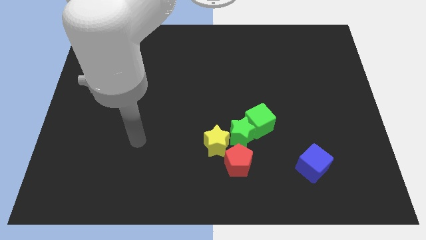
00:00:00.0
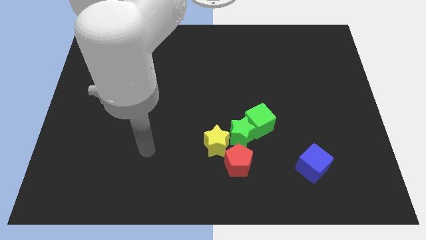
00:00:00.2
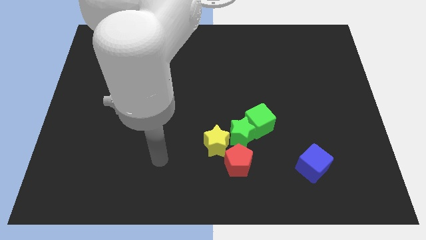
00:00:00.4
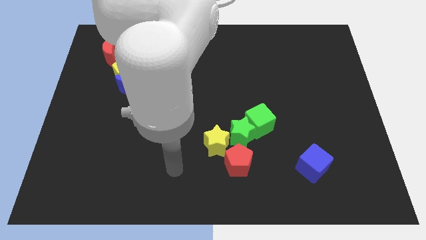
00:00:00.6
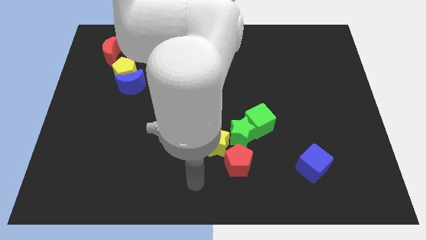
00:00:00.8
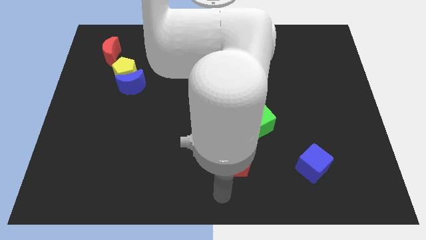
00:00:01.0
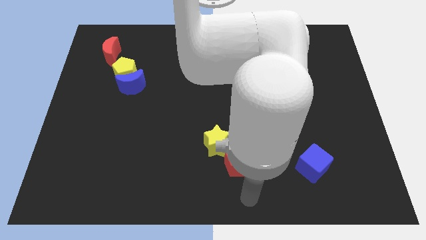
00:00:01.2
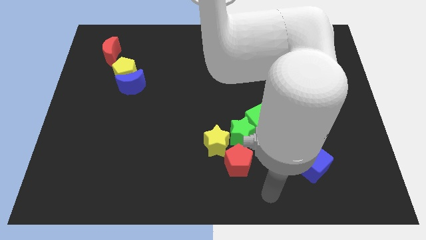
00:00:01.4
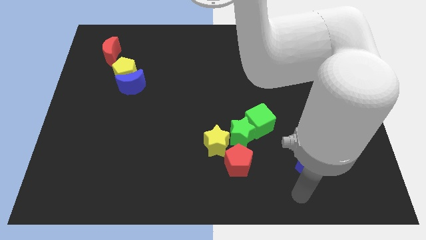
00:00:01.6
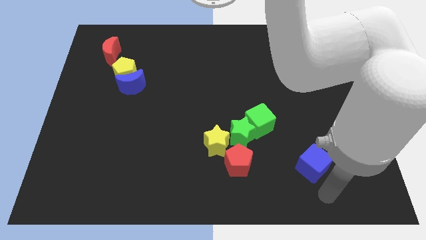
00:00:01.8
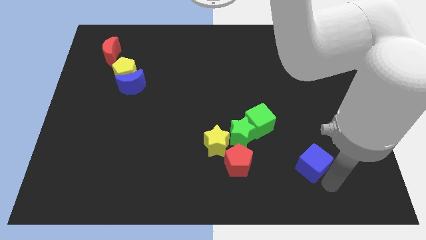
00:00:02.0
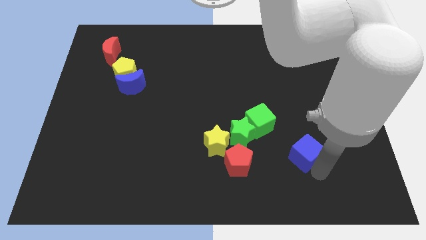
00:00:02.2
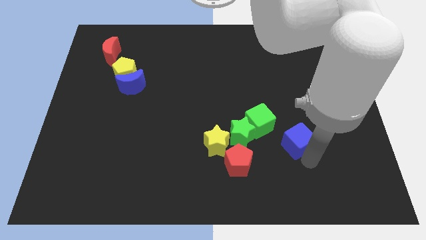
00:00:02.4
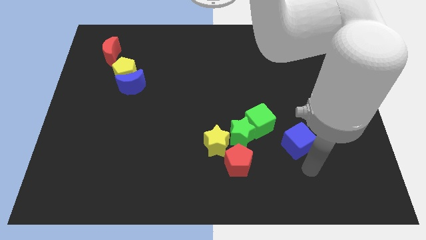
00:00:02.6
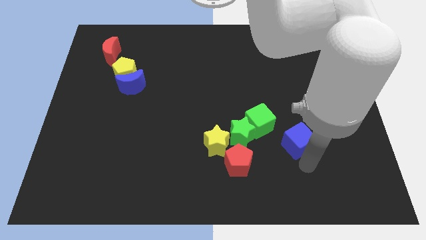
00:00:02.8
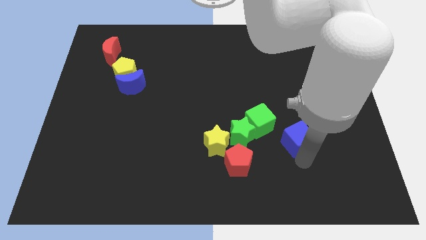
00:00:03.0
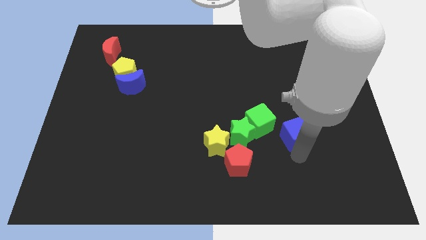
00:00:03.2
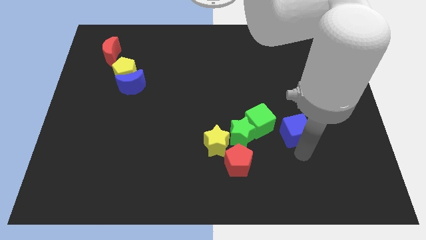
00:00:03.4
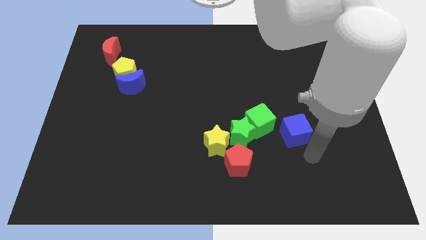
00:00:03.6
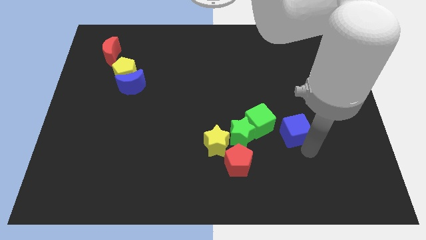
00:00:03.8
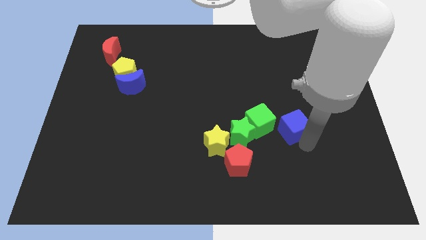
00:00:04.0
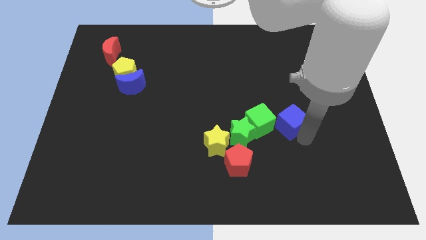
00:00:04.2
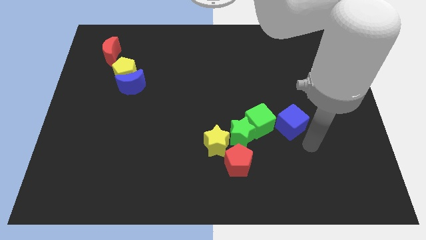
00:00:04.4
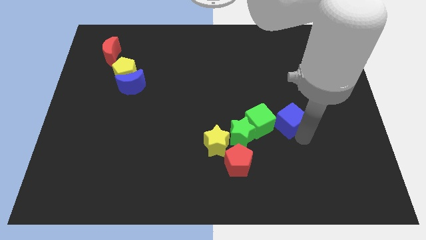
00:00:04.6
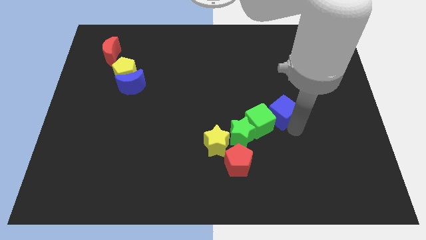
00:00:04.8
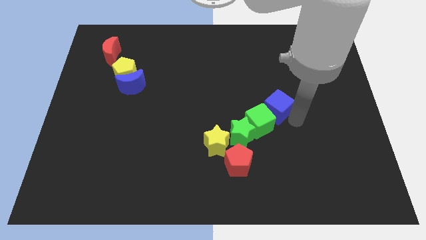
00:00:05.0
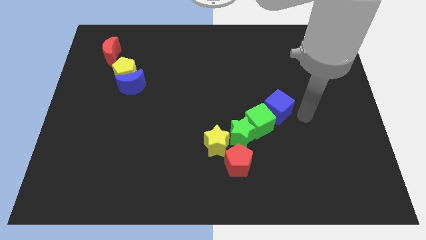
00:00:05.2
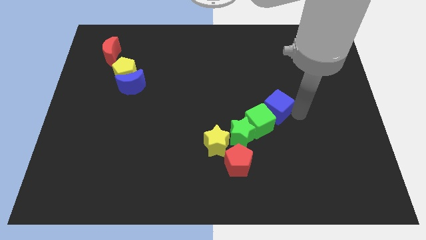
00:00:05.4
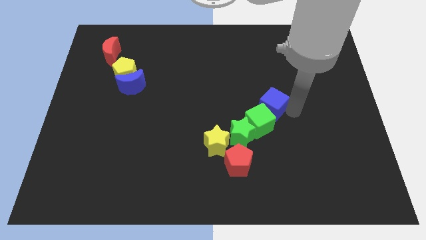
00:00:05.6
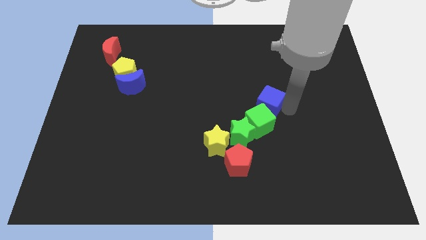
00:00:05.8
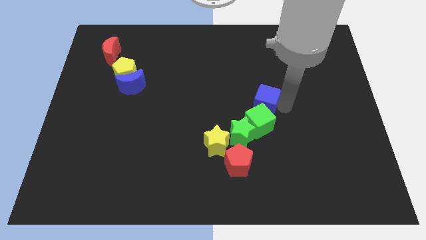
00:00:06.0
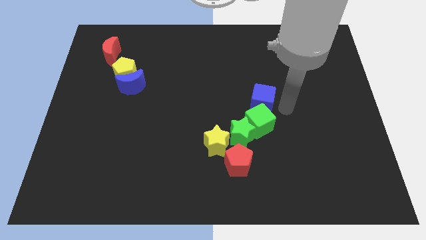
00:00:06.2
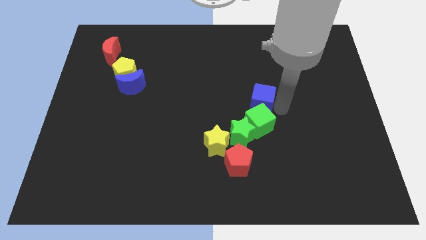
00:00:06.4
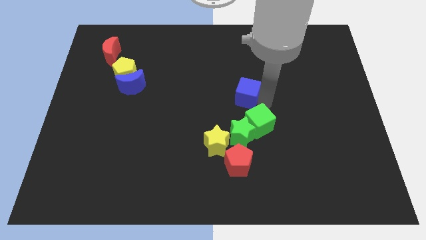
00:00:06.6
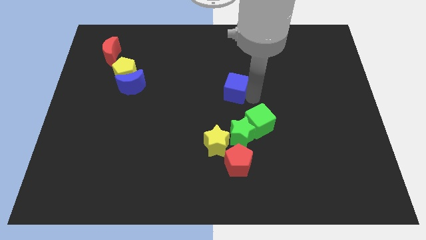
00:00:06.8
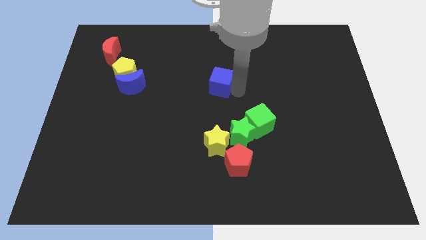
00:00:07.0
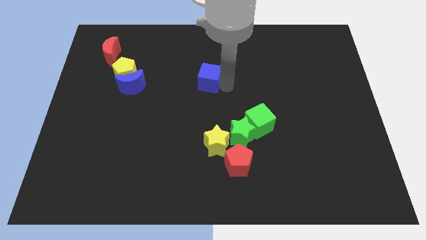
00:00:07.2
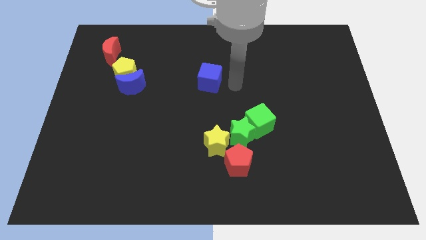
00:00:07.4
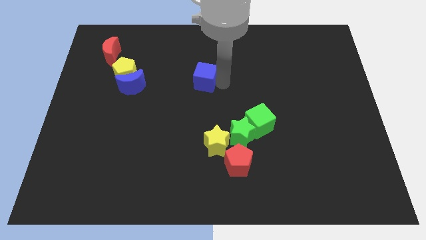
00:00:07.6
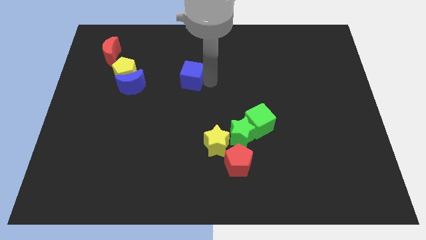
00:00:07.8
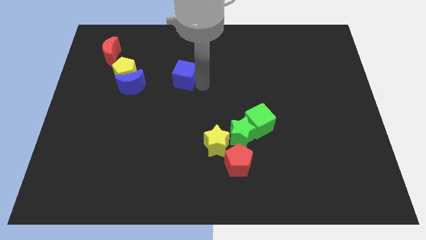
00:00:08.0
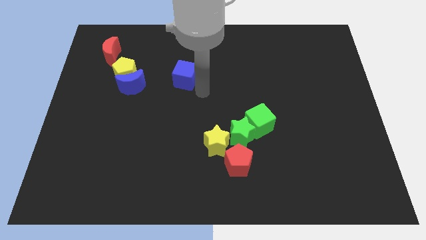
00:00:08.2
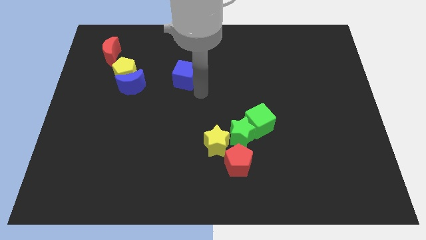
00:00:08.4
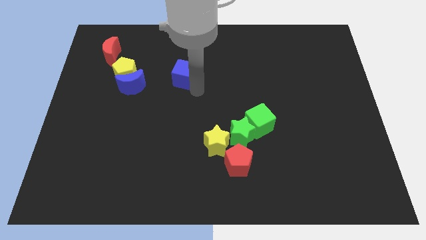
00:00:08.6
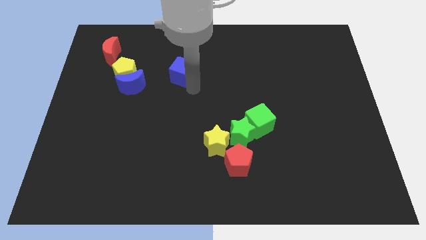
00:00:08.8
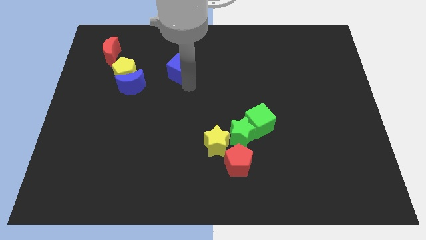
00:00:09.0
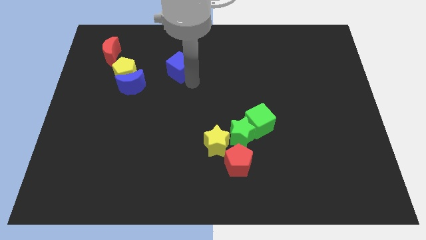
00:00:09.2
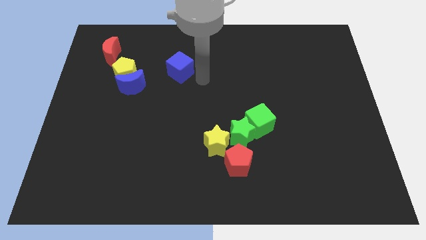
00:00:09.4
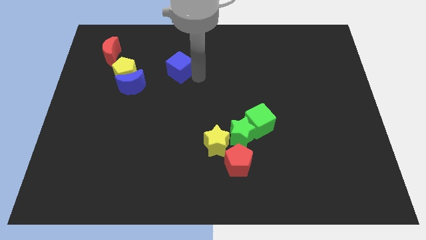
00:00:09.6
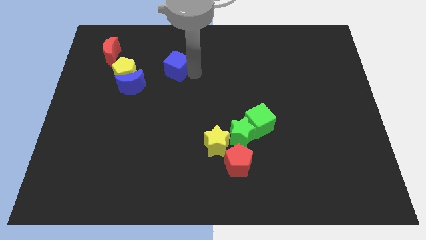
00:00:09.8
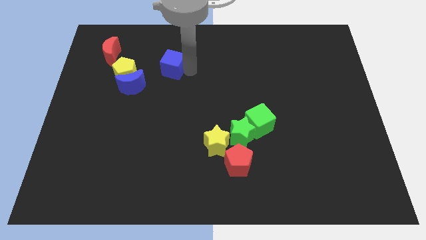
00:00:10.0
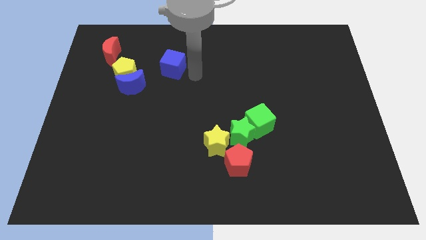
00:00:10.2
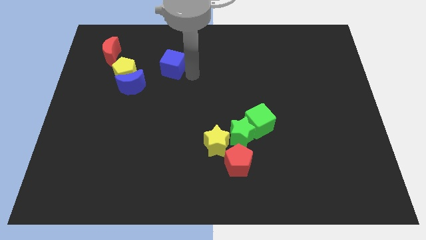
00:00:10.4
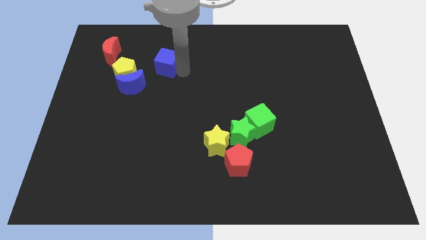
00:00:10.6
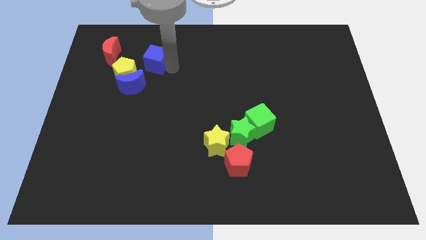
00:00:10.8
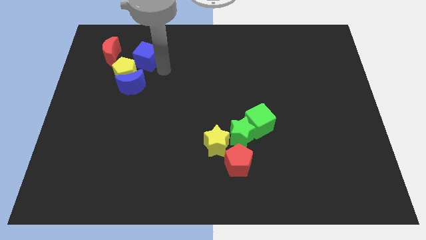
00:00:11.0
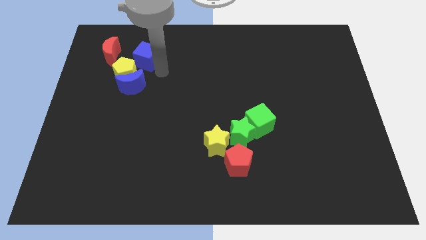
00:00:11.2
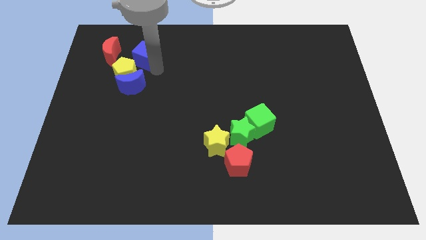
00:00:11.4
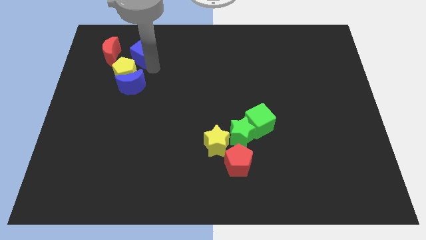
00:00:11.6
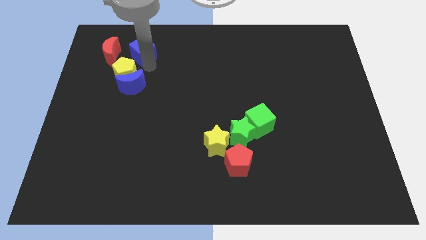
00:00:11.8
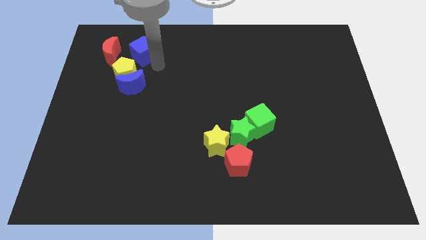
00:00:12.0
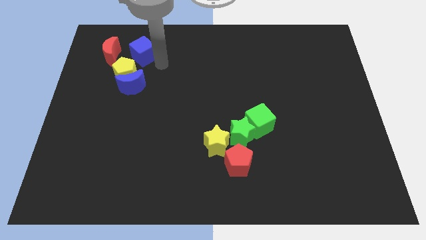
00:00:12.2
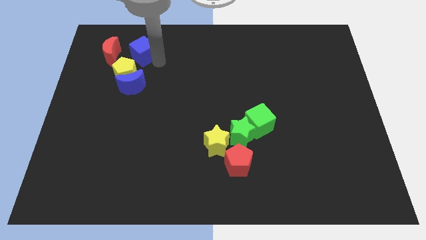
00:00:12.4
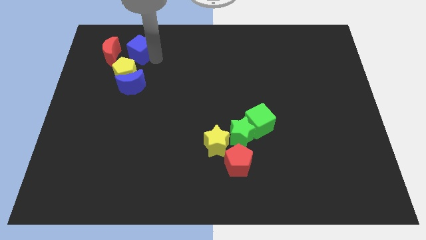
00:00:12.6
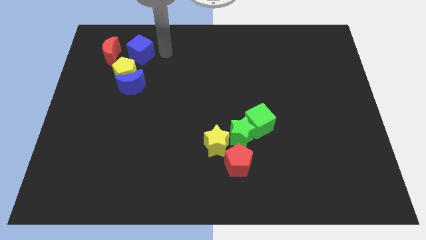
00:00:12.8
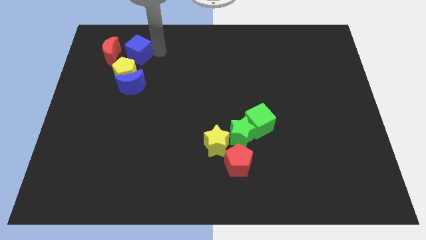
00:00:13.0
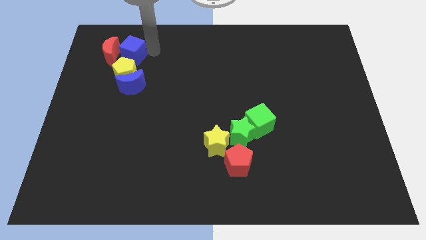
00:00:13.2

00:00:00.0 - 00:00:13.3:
slide the blue cube to the red moon
